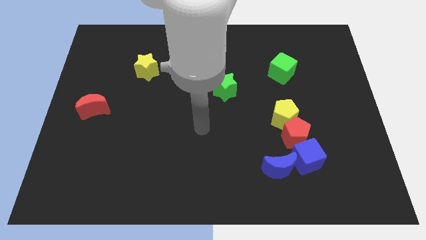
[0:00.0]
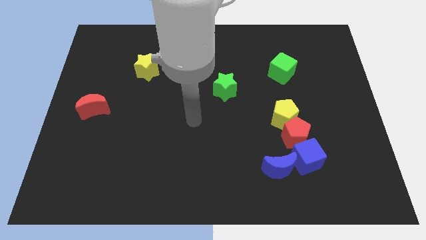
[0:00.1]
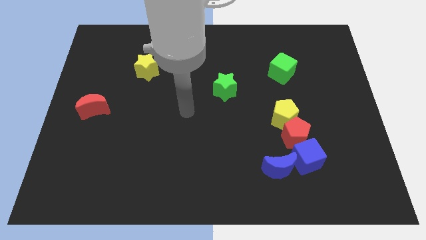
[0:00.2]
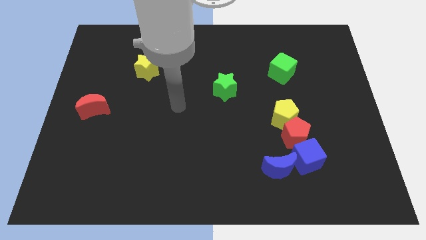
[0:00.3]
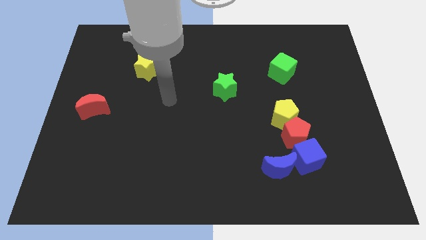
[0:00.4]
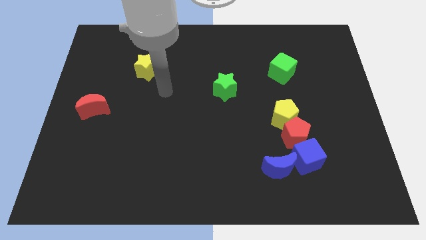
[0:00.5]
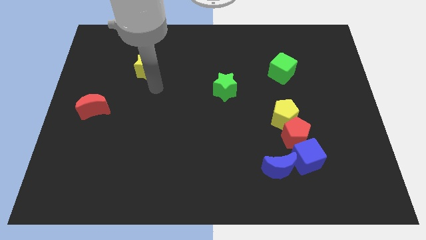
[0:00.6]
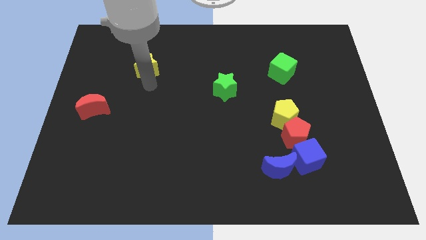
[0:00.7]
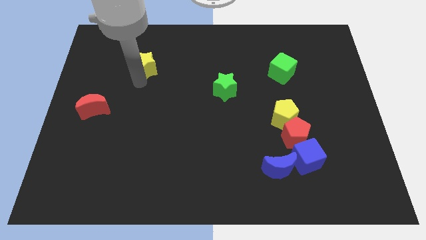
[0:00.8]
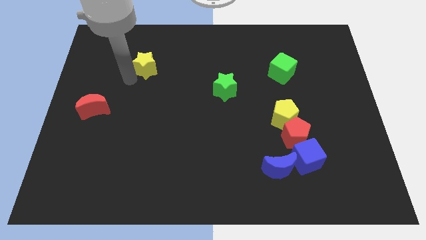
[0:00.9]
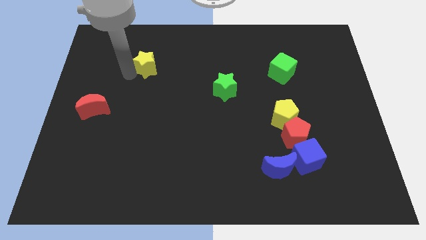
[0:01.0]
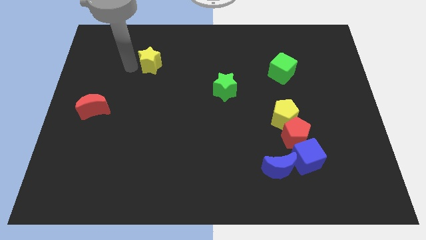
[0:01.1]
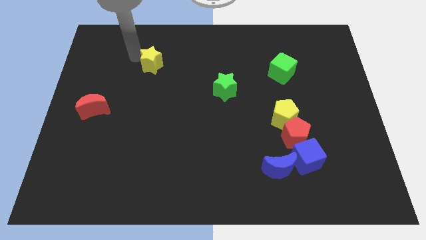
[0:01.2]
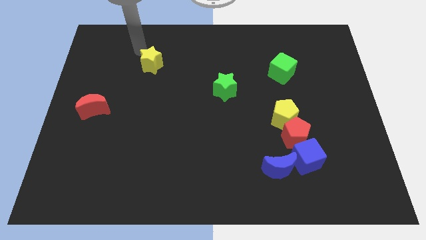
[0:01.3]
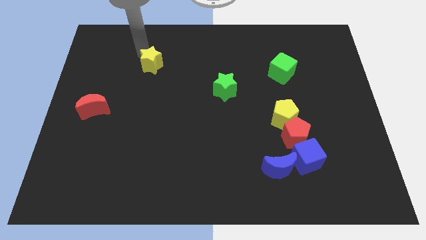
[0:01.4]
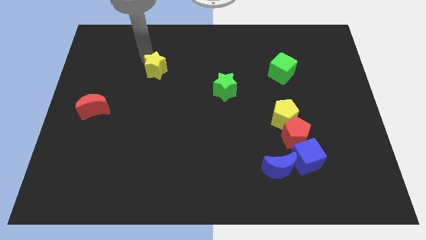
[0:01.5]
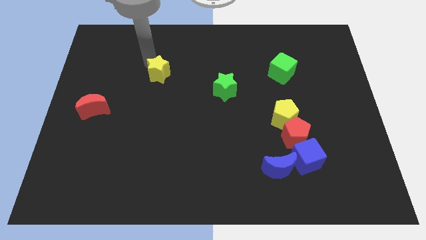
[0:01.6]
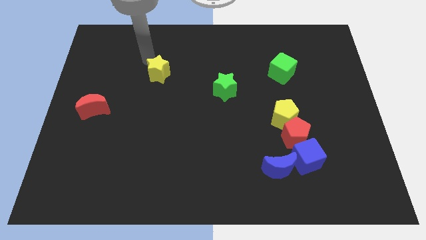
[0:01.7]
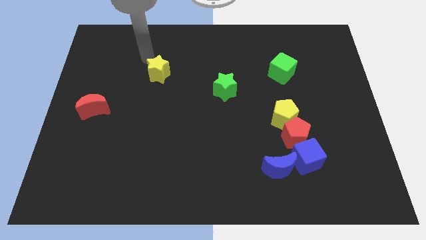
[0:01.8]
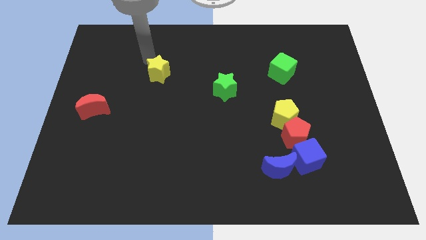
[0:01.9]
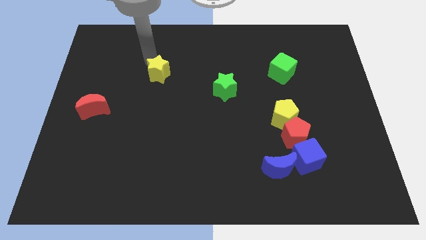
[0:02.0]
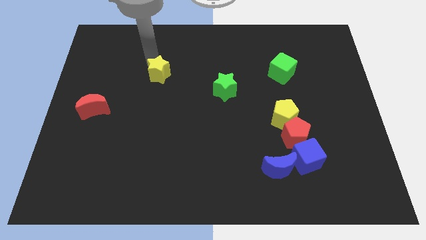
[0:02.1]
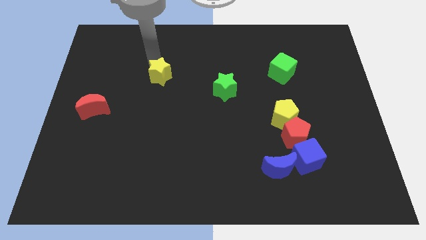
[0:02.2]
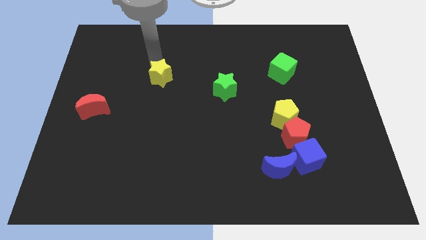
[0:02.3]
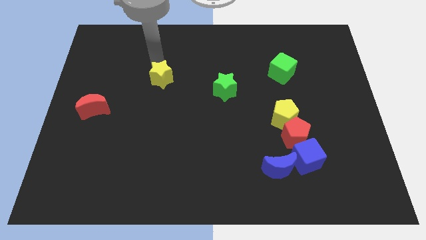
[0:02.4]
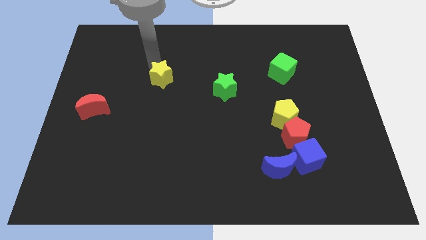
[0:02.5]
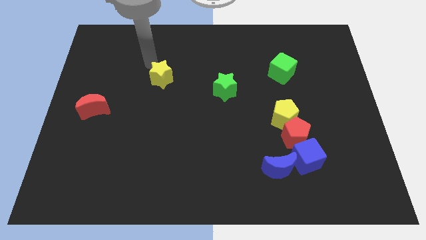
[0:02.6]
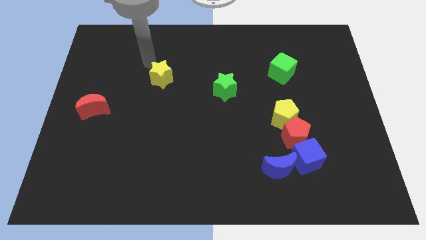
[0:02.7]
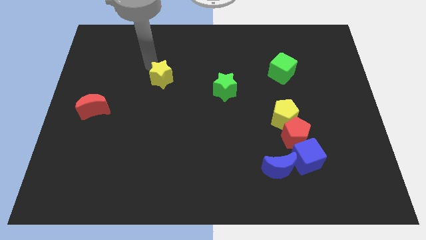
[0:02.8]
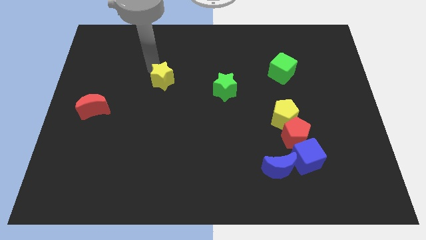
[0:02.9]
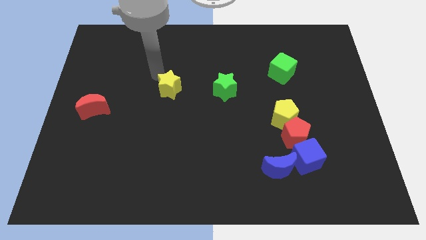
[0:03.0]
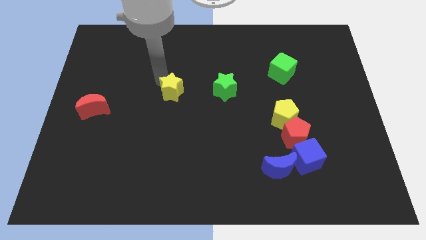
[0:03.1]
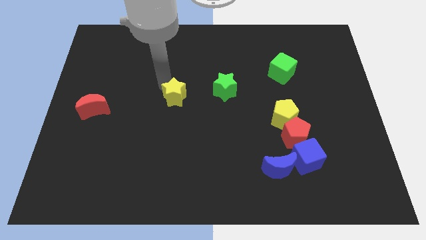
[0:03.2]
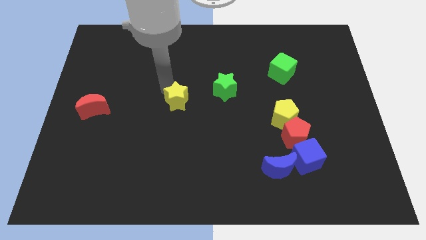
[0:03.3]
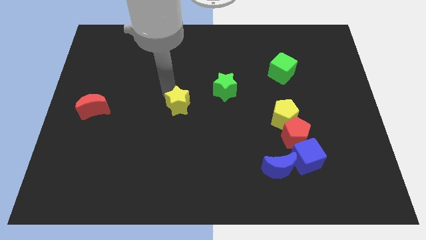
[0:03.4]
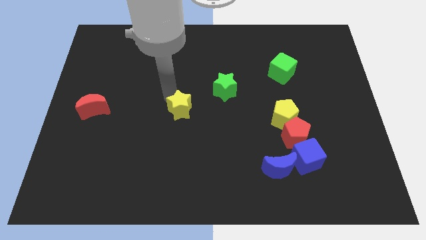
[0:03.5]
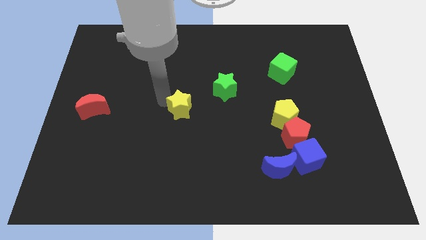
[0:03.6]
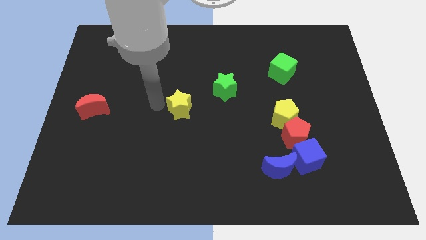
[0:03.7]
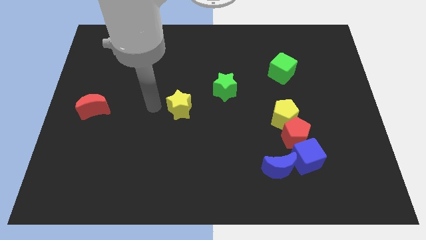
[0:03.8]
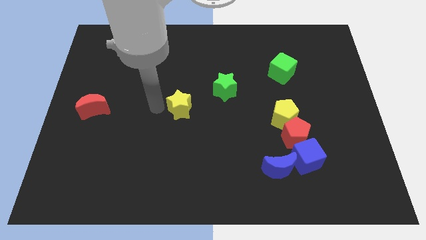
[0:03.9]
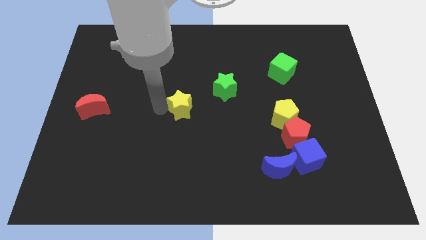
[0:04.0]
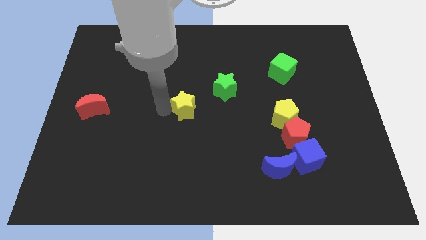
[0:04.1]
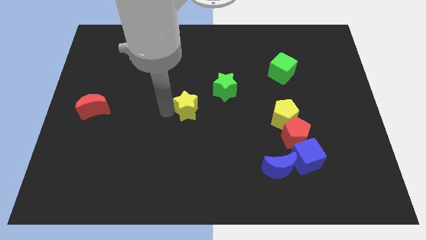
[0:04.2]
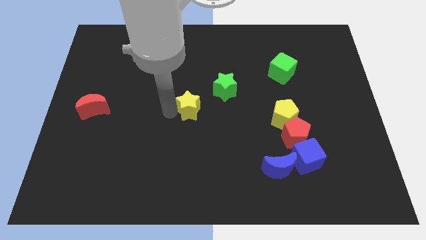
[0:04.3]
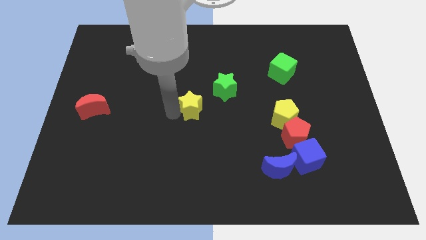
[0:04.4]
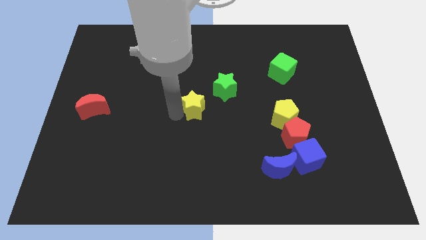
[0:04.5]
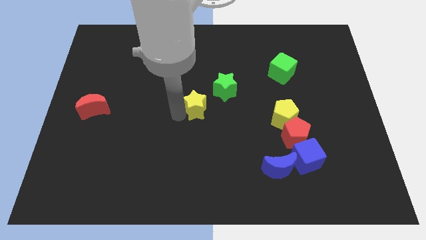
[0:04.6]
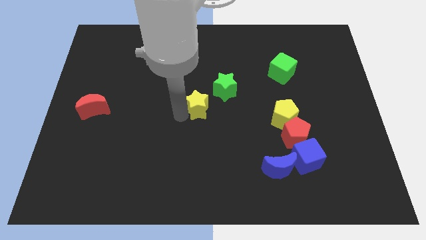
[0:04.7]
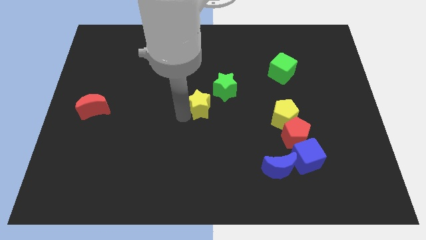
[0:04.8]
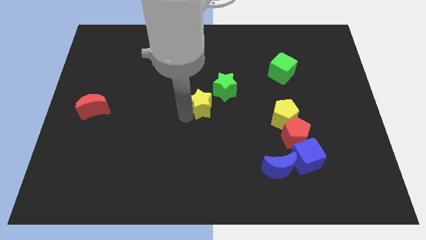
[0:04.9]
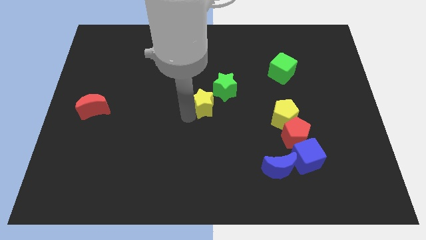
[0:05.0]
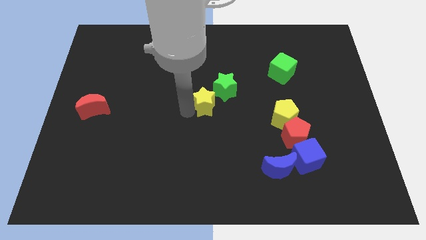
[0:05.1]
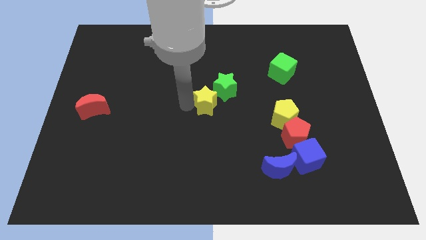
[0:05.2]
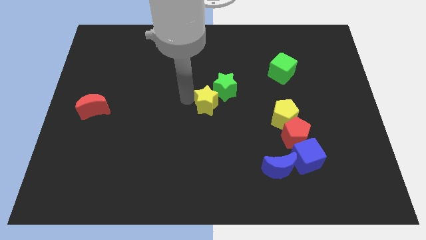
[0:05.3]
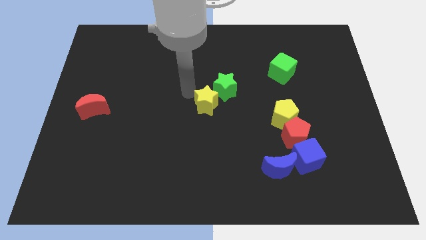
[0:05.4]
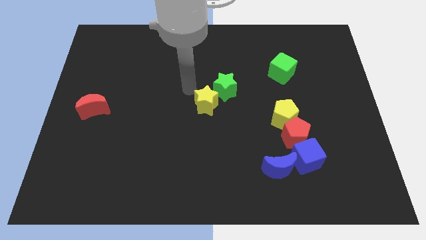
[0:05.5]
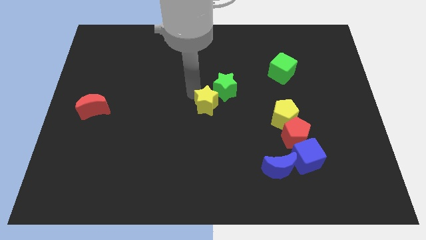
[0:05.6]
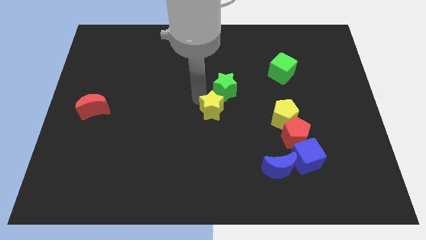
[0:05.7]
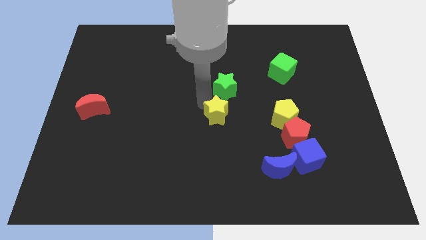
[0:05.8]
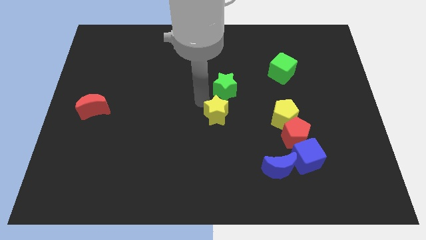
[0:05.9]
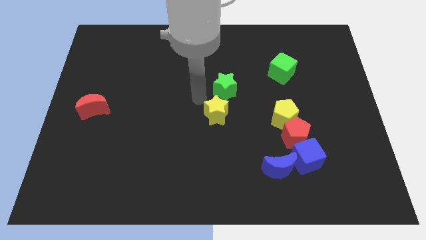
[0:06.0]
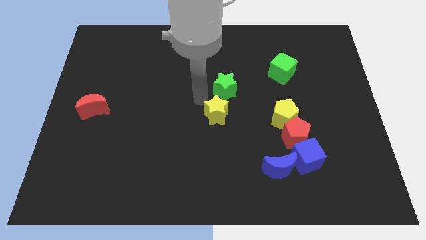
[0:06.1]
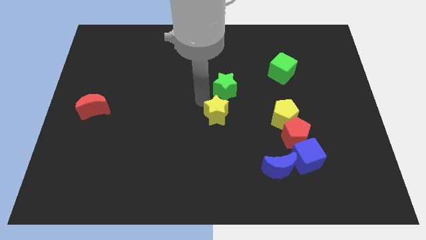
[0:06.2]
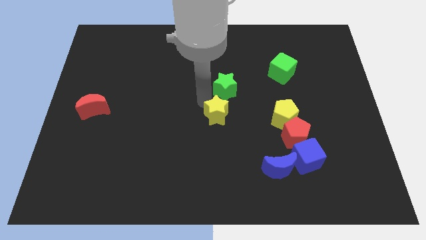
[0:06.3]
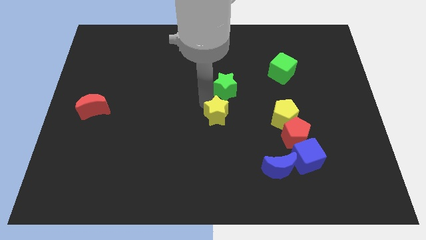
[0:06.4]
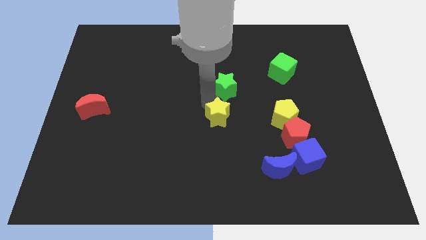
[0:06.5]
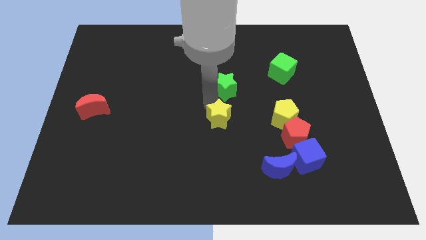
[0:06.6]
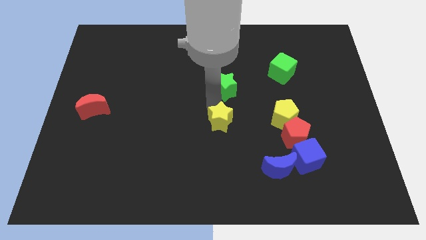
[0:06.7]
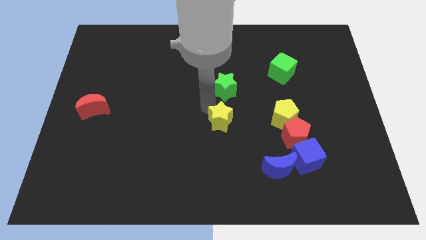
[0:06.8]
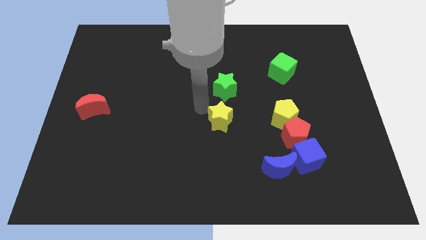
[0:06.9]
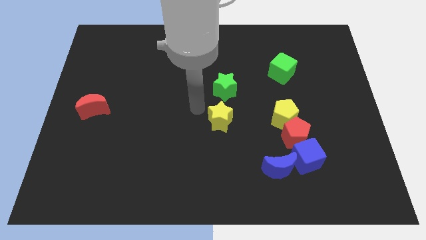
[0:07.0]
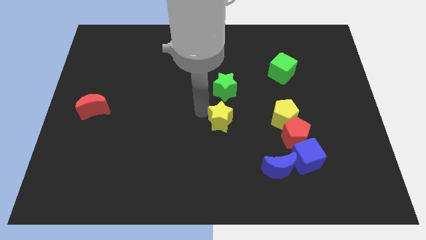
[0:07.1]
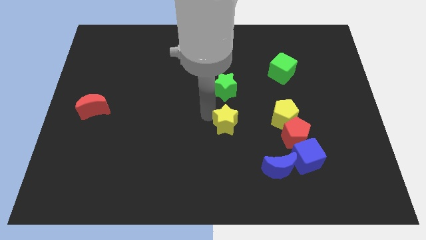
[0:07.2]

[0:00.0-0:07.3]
push the yellow star to the left side of the red pentagon
